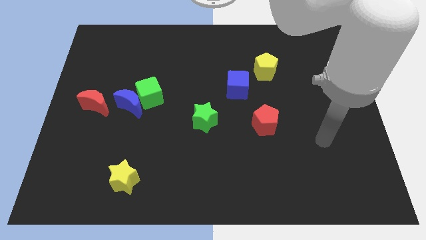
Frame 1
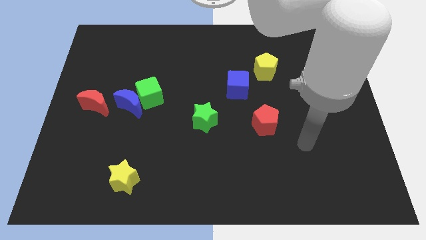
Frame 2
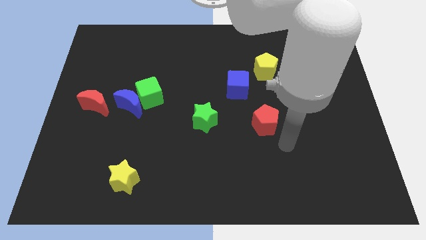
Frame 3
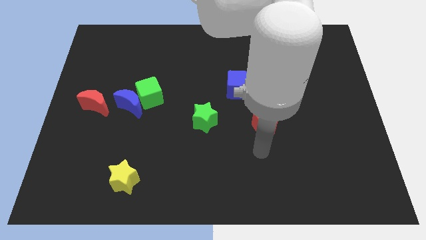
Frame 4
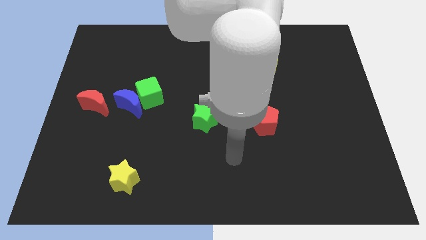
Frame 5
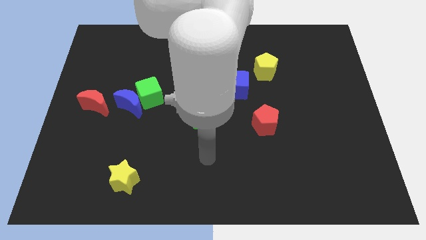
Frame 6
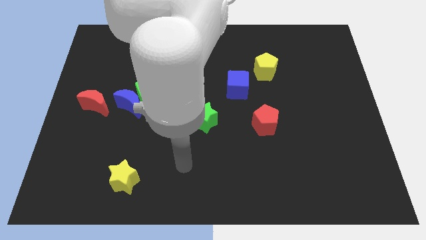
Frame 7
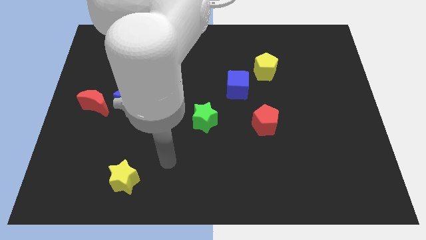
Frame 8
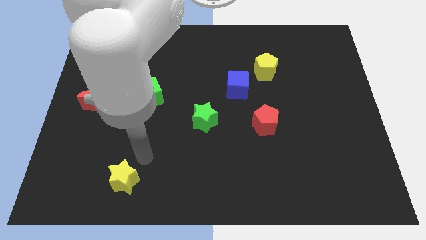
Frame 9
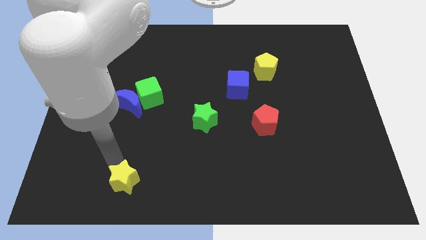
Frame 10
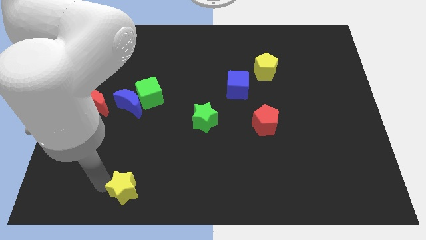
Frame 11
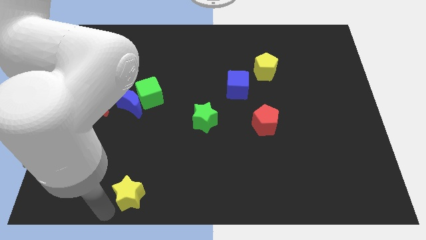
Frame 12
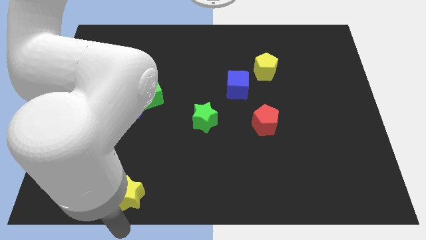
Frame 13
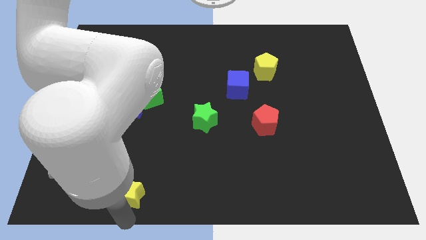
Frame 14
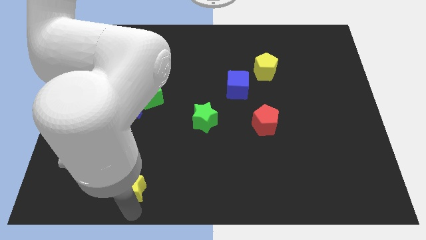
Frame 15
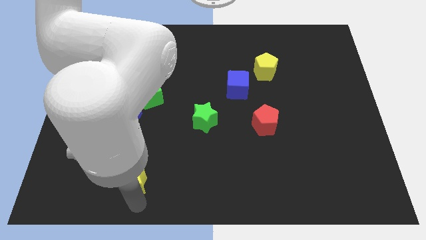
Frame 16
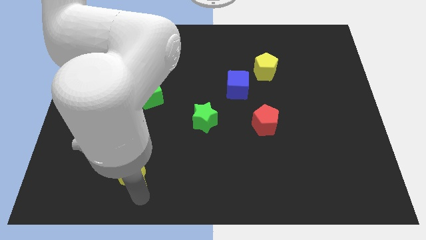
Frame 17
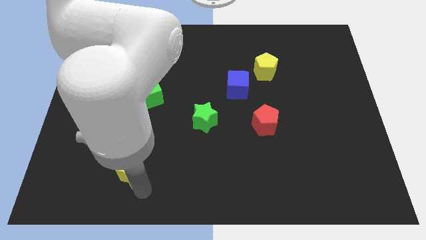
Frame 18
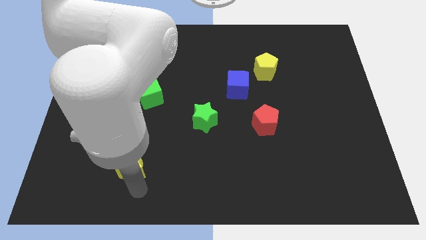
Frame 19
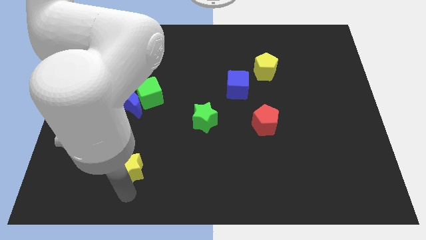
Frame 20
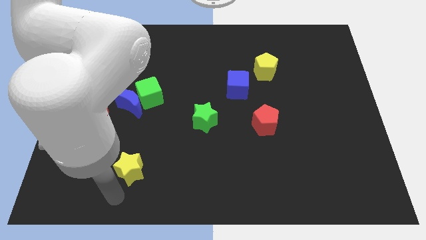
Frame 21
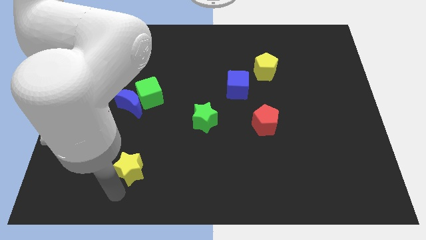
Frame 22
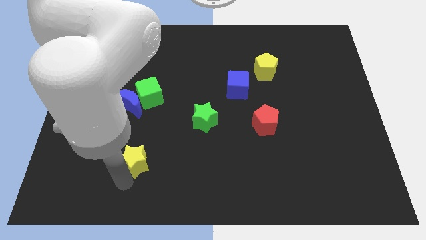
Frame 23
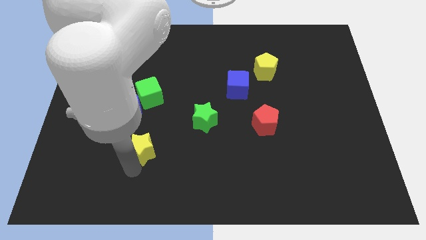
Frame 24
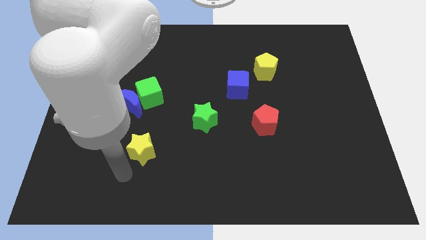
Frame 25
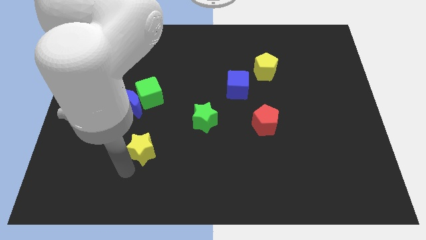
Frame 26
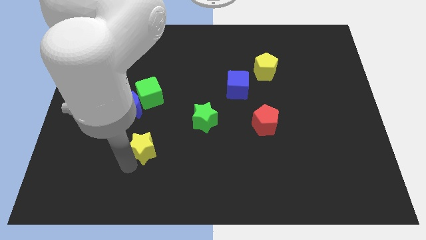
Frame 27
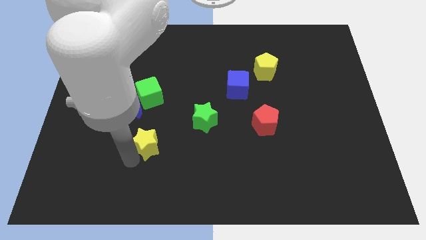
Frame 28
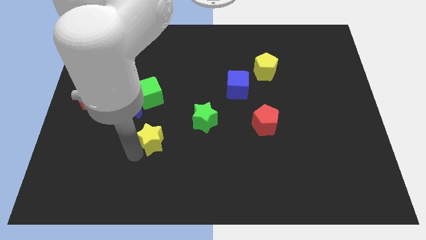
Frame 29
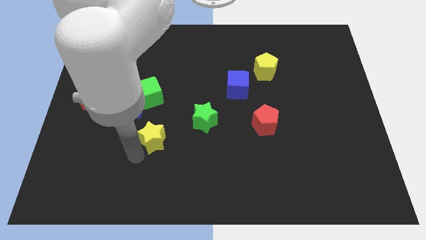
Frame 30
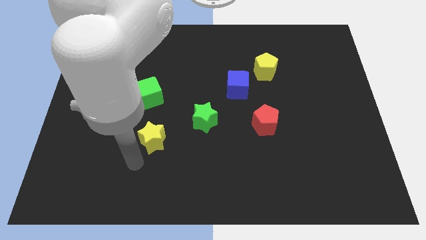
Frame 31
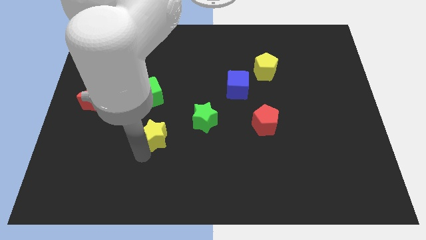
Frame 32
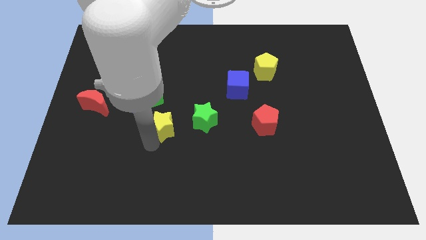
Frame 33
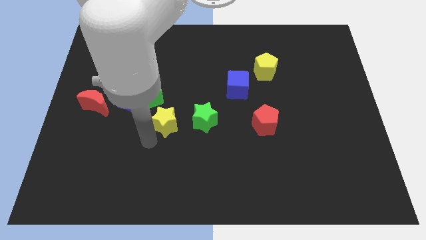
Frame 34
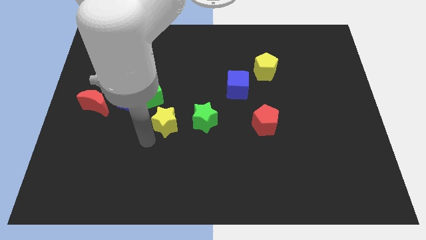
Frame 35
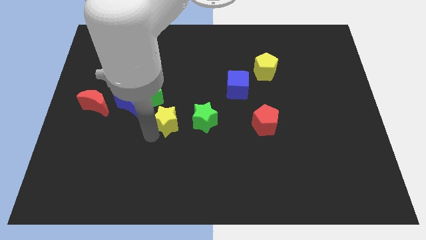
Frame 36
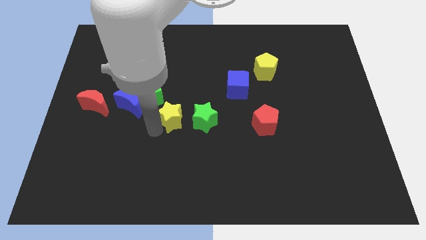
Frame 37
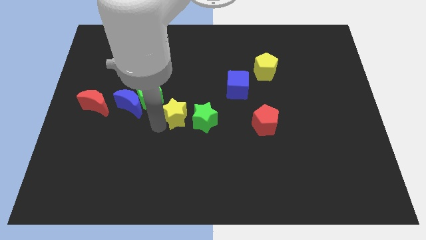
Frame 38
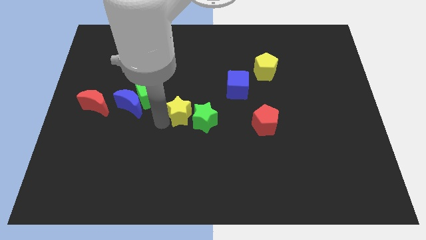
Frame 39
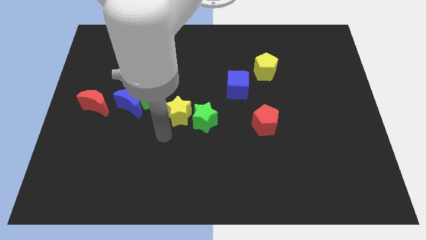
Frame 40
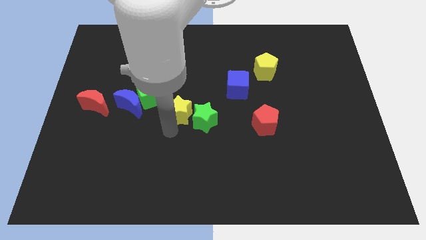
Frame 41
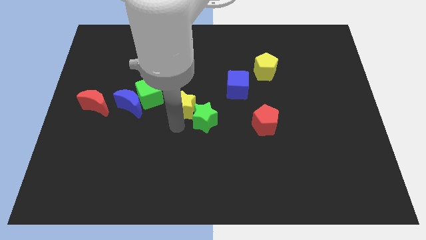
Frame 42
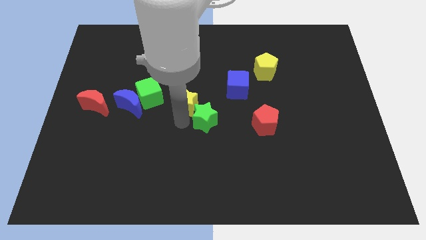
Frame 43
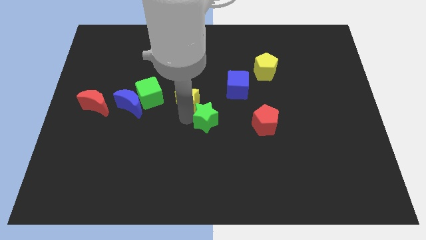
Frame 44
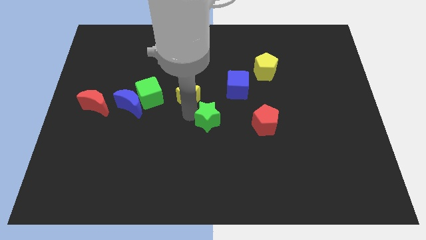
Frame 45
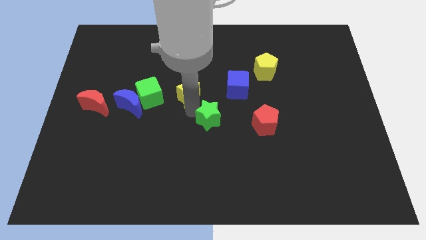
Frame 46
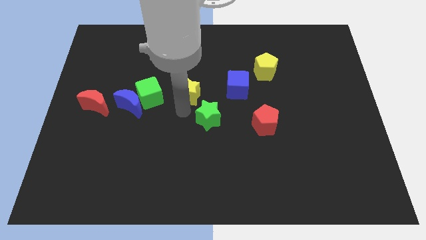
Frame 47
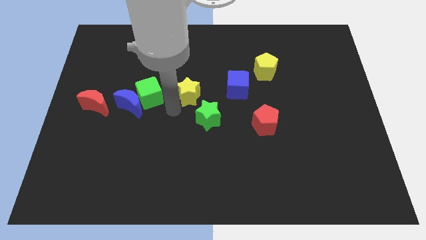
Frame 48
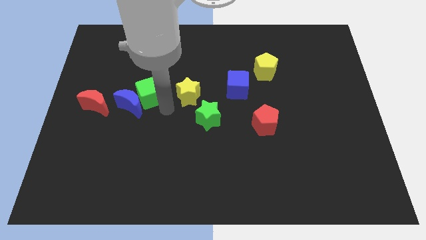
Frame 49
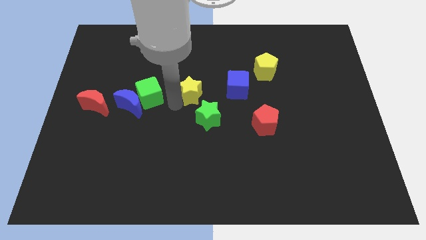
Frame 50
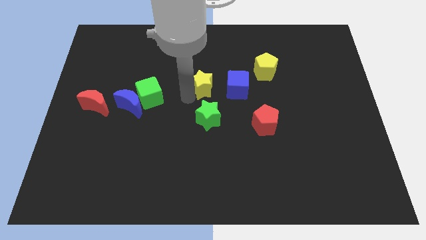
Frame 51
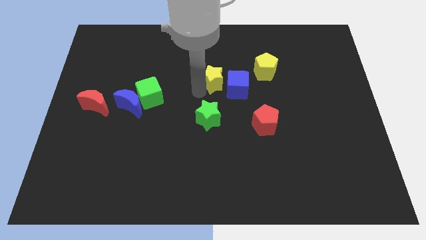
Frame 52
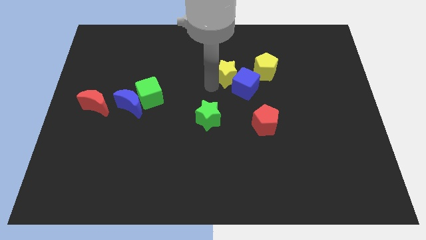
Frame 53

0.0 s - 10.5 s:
put the yellow star above the blue cube

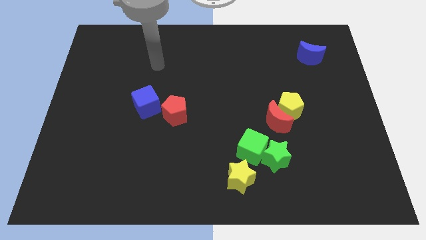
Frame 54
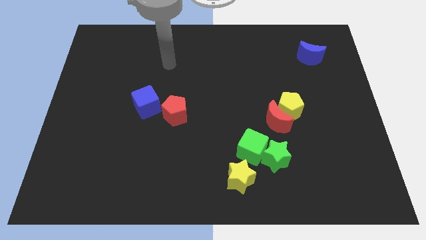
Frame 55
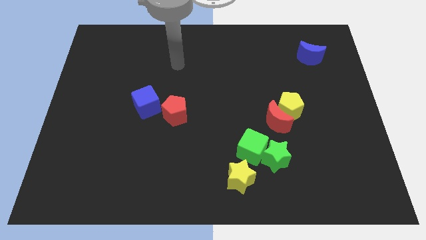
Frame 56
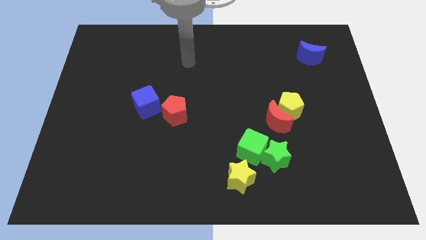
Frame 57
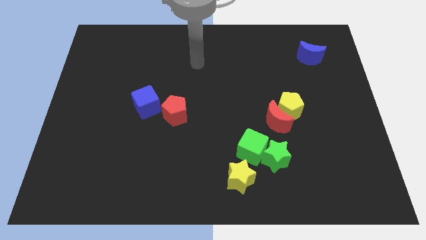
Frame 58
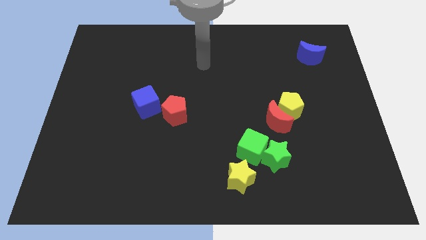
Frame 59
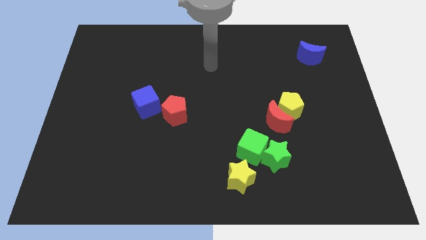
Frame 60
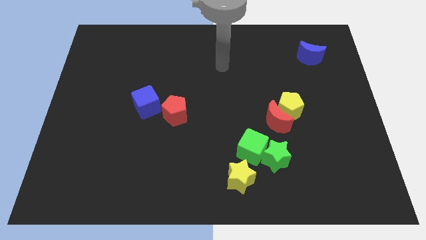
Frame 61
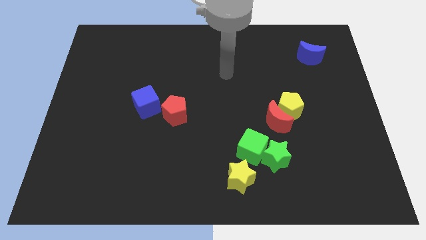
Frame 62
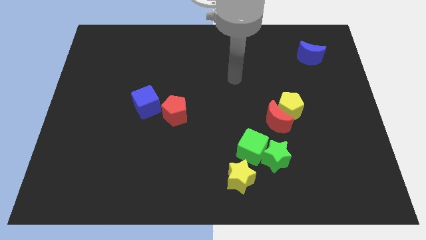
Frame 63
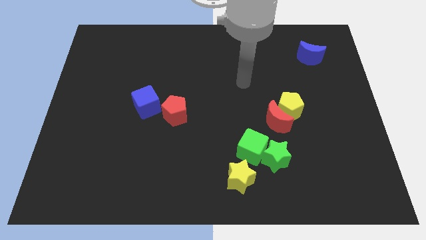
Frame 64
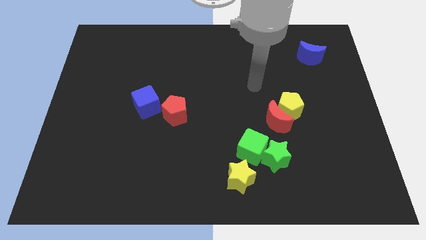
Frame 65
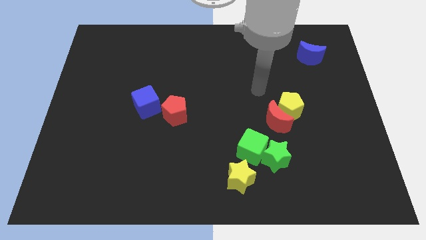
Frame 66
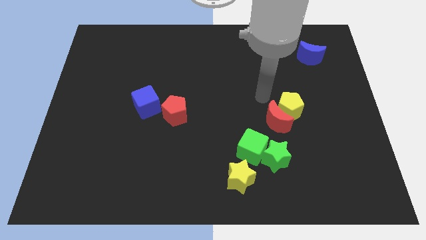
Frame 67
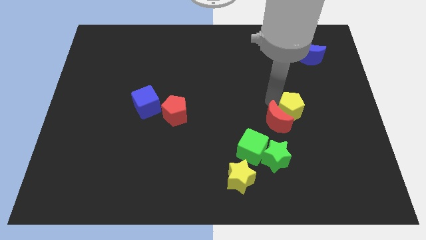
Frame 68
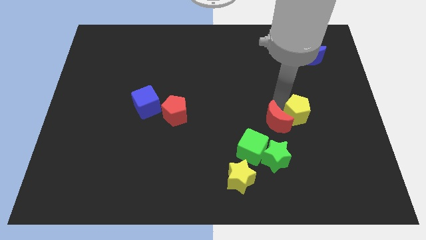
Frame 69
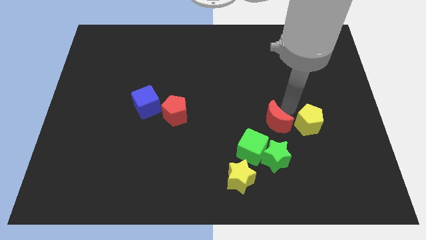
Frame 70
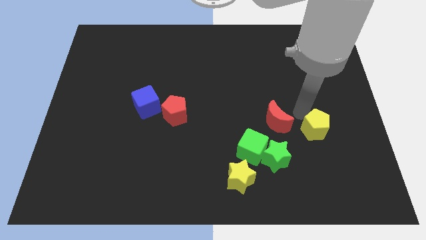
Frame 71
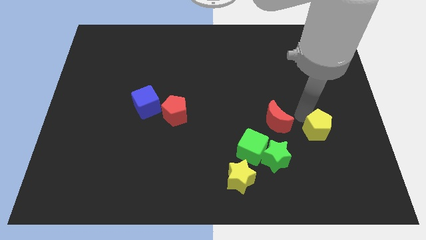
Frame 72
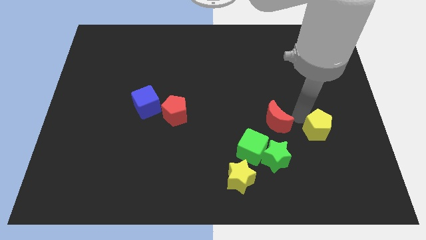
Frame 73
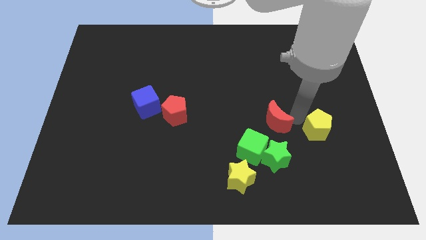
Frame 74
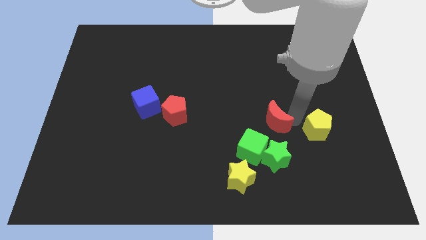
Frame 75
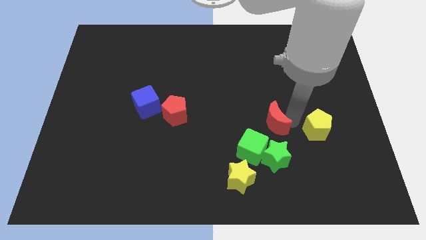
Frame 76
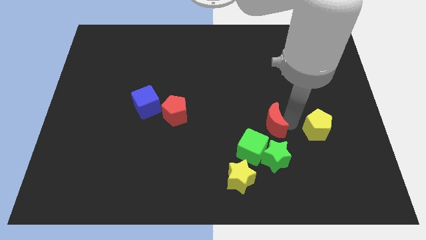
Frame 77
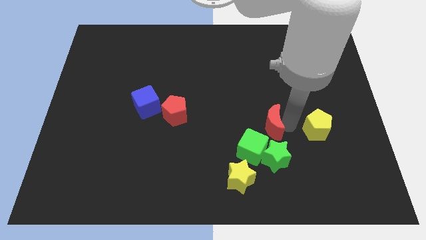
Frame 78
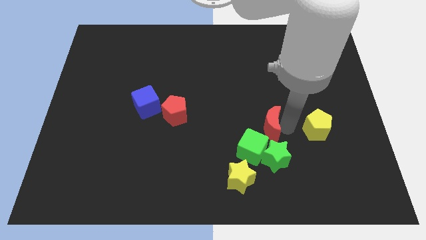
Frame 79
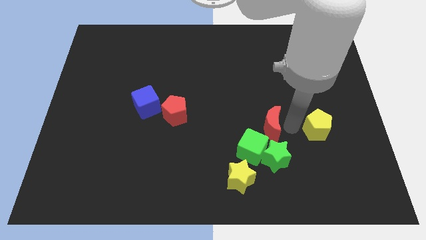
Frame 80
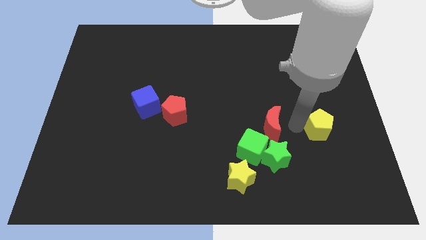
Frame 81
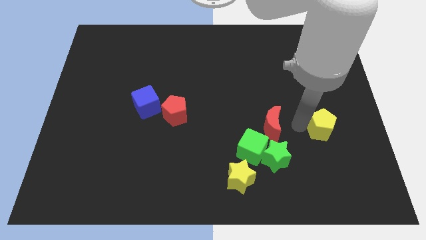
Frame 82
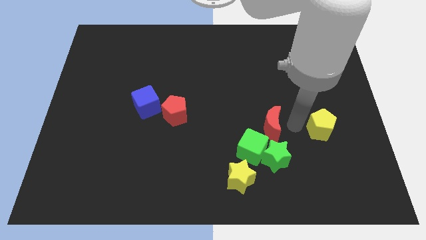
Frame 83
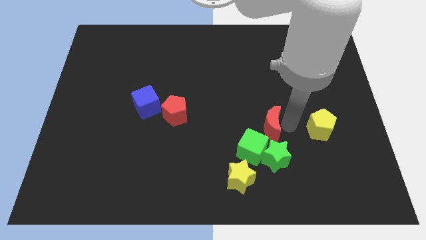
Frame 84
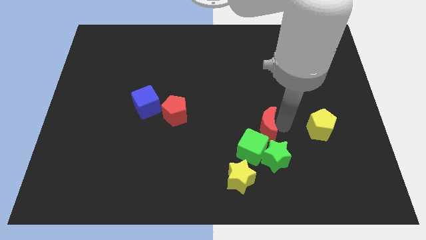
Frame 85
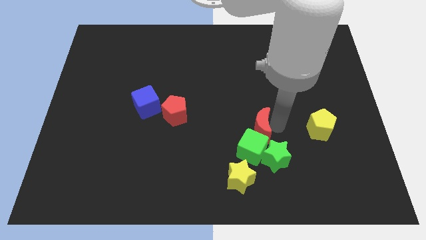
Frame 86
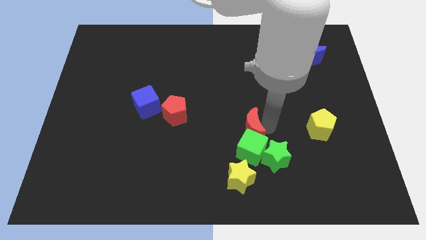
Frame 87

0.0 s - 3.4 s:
push the red moon to the top left side of the green cube
